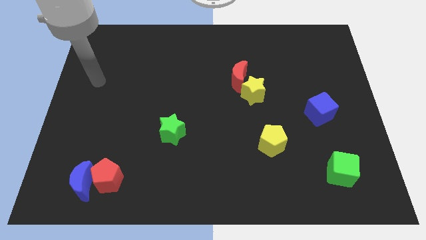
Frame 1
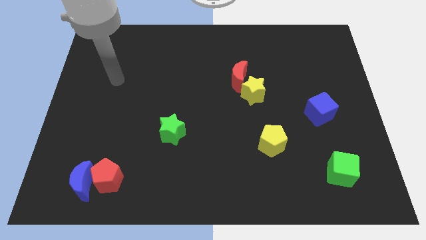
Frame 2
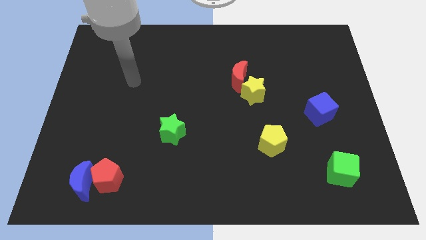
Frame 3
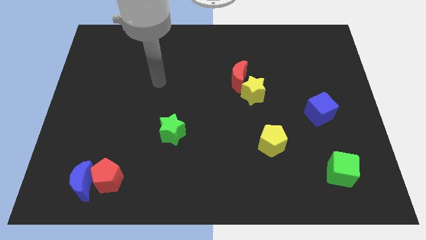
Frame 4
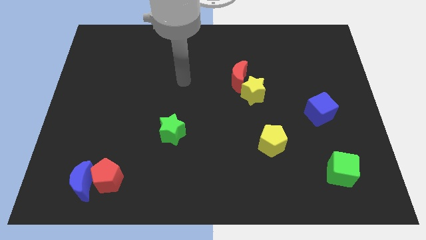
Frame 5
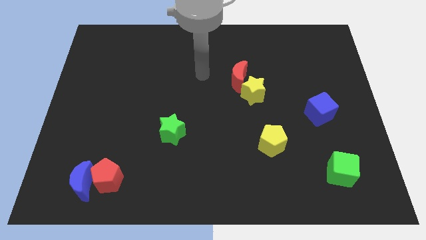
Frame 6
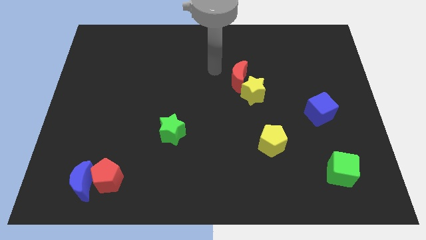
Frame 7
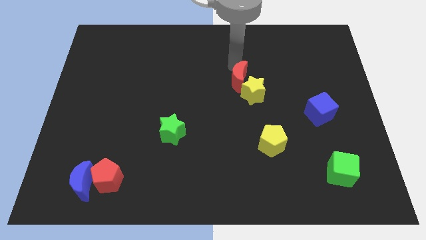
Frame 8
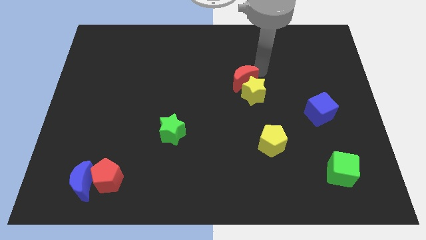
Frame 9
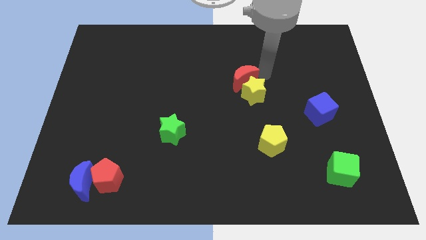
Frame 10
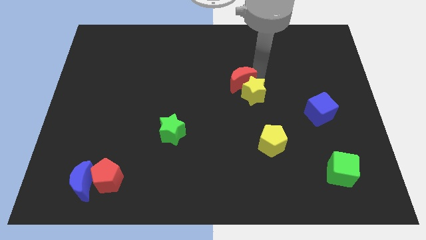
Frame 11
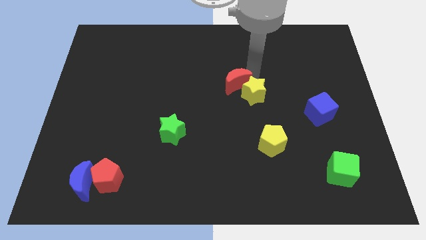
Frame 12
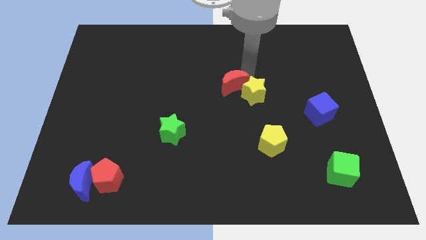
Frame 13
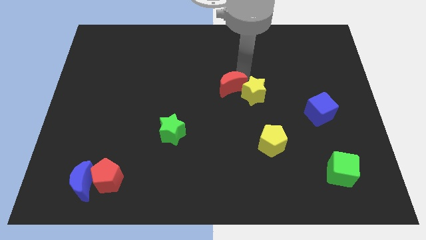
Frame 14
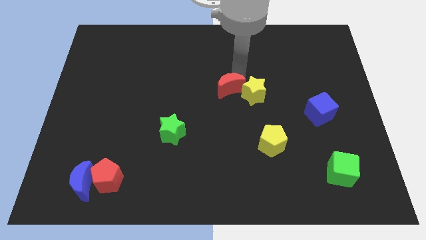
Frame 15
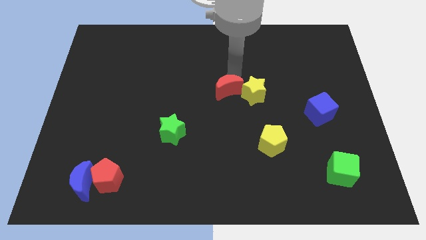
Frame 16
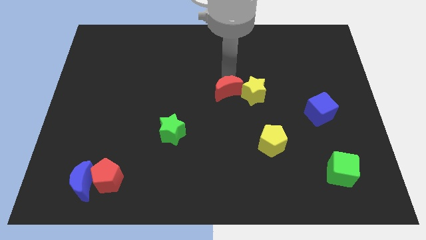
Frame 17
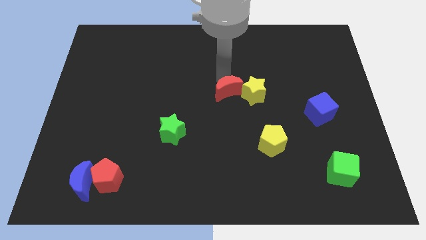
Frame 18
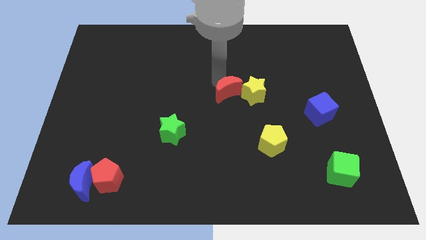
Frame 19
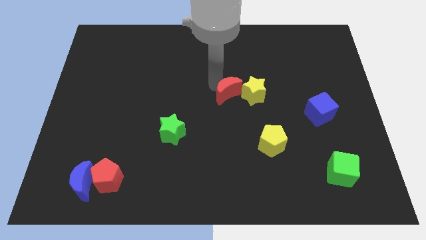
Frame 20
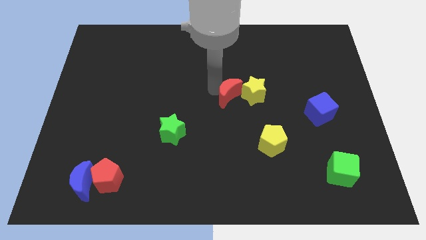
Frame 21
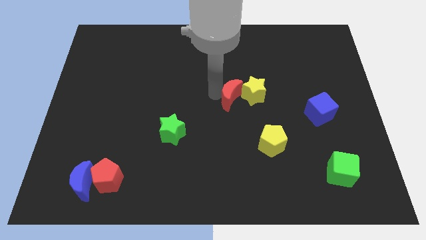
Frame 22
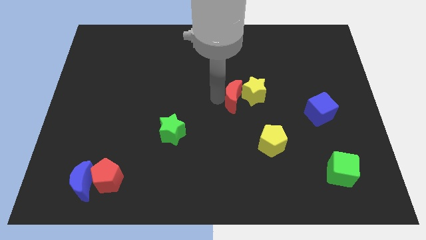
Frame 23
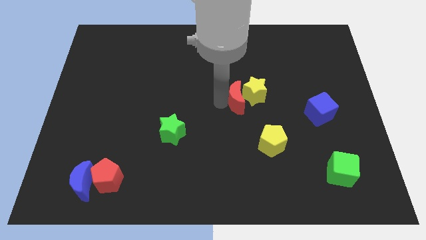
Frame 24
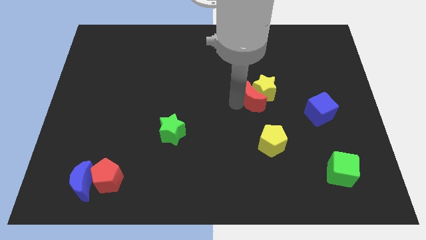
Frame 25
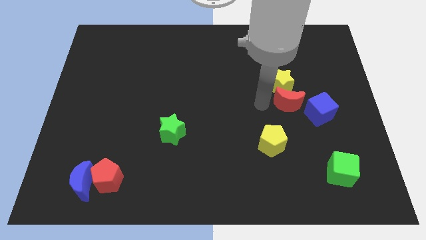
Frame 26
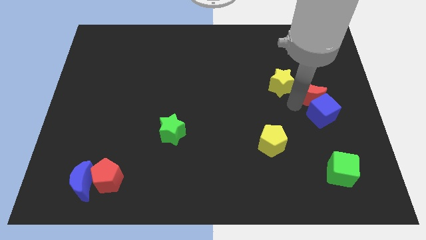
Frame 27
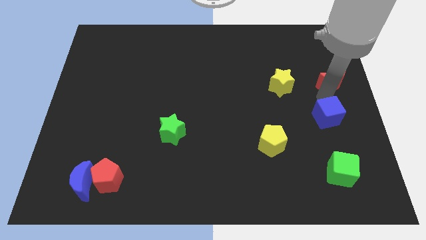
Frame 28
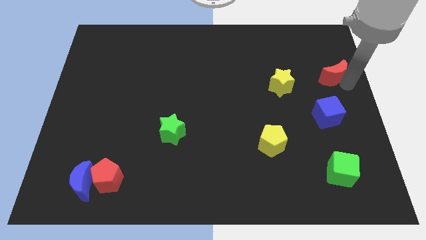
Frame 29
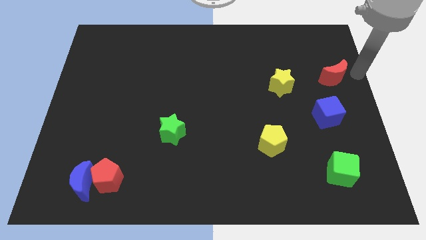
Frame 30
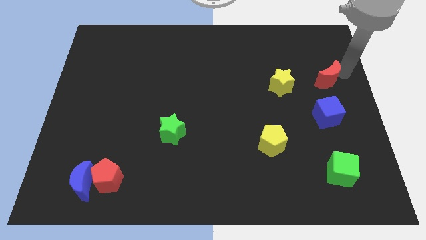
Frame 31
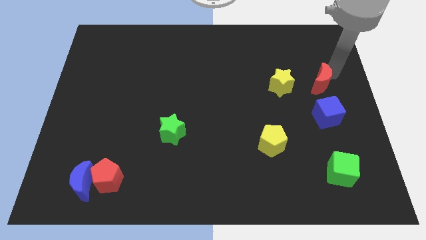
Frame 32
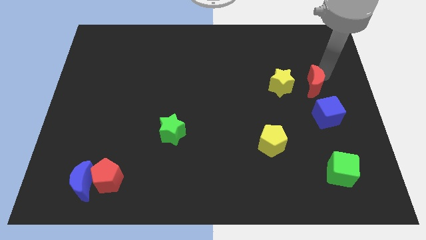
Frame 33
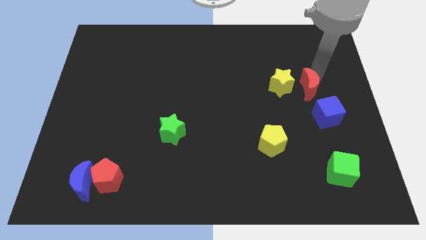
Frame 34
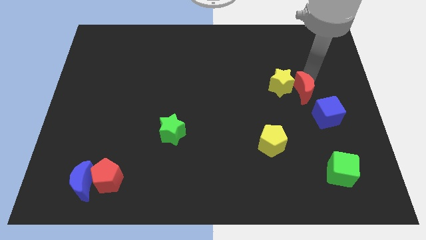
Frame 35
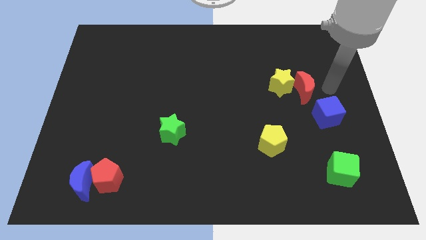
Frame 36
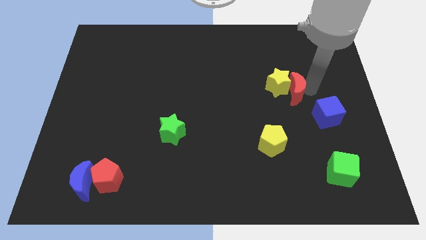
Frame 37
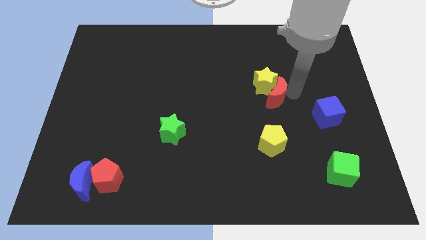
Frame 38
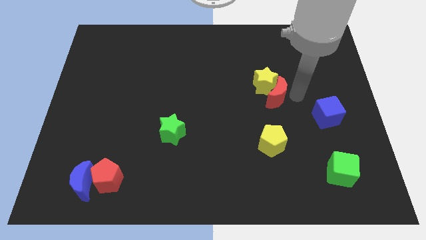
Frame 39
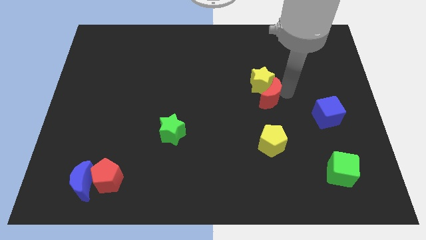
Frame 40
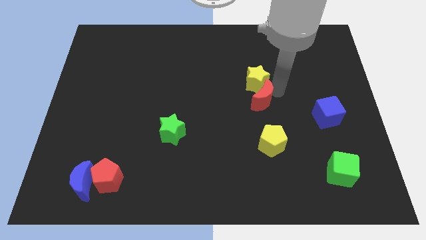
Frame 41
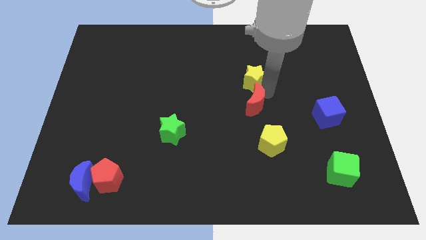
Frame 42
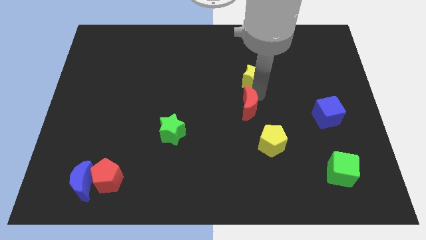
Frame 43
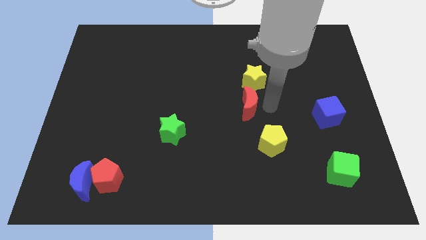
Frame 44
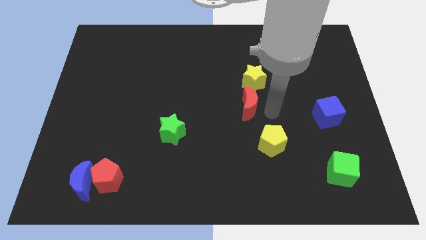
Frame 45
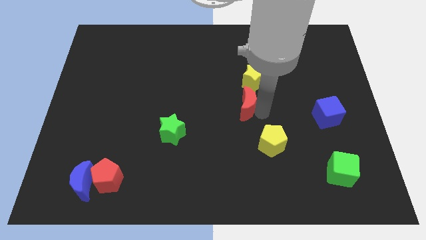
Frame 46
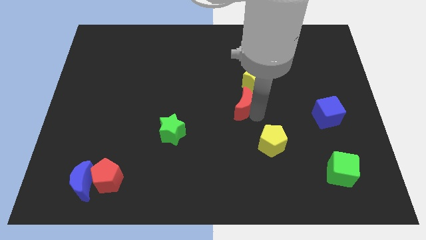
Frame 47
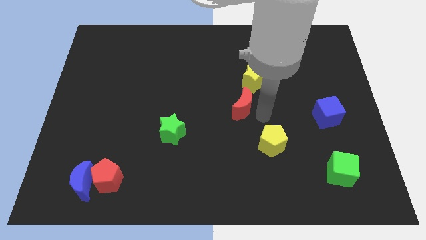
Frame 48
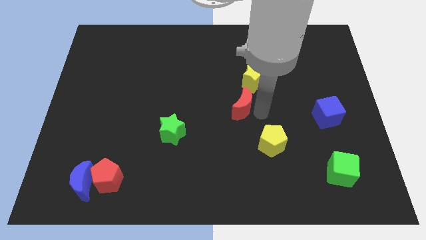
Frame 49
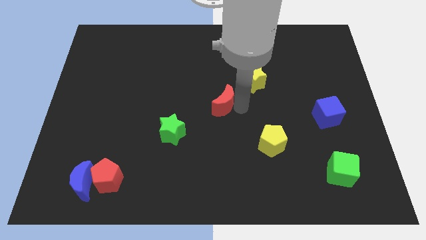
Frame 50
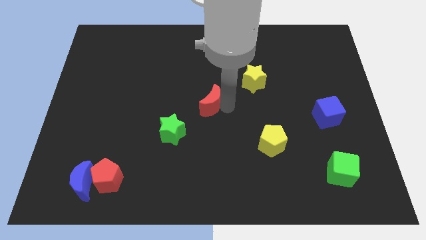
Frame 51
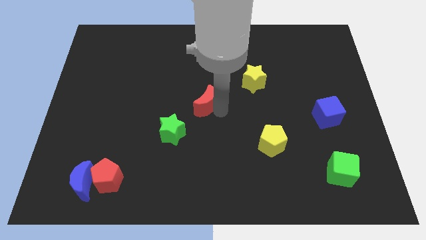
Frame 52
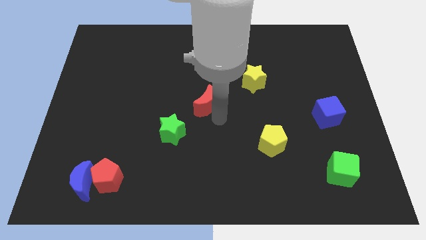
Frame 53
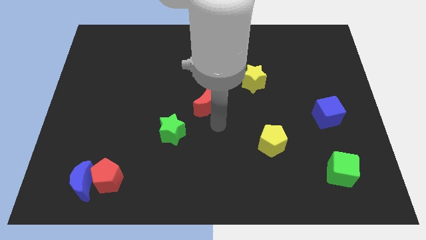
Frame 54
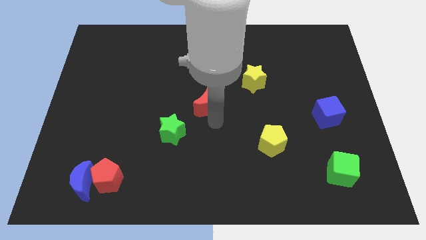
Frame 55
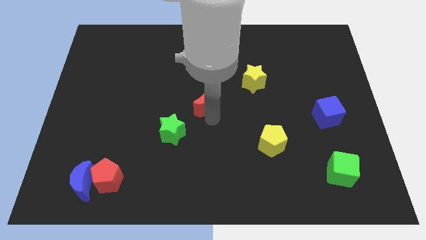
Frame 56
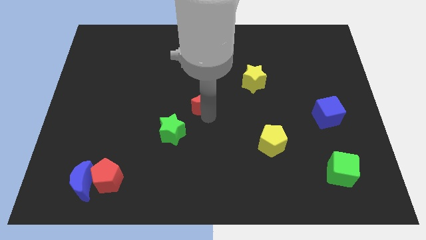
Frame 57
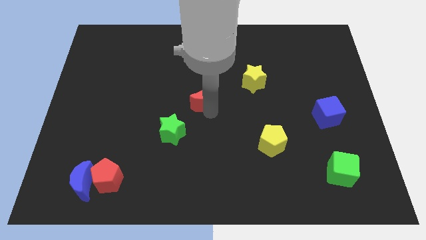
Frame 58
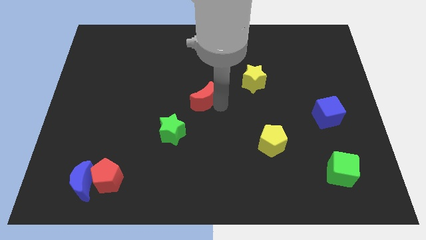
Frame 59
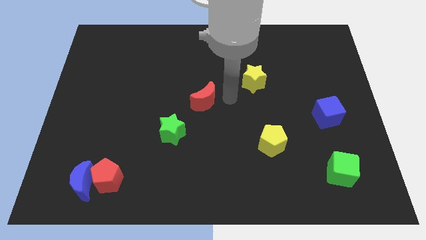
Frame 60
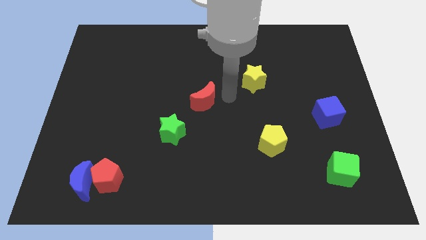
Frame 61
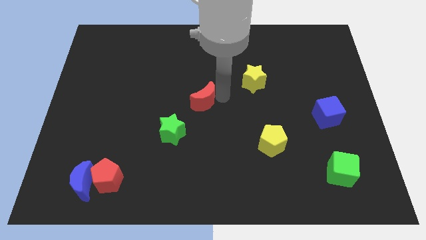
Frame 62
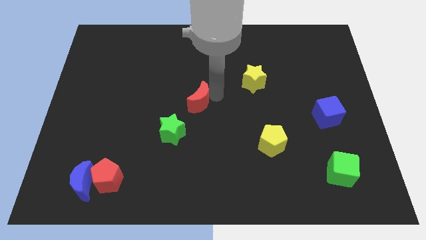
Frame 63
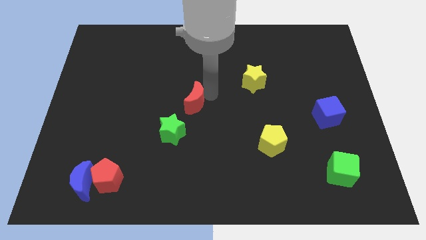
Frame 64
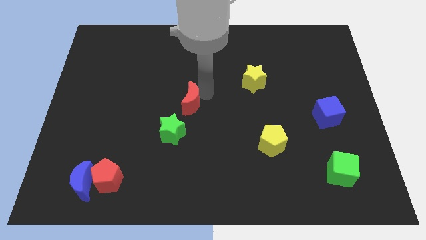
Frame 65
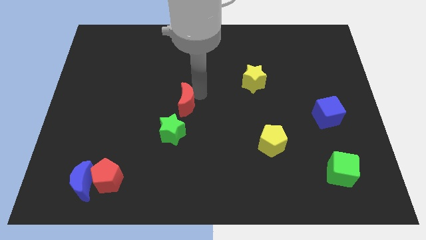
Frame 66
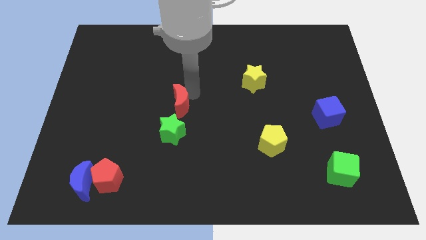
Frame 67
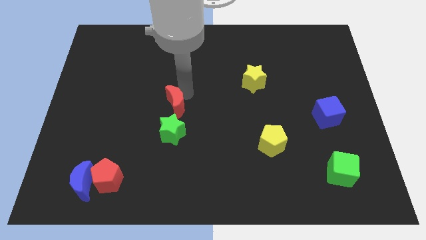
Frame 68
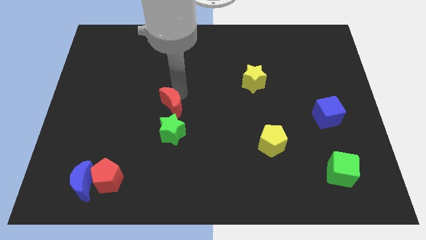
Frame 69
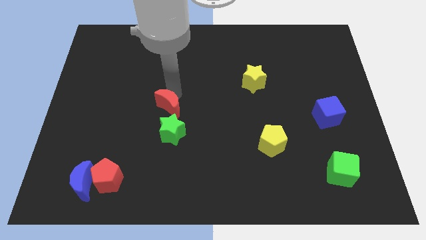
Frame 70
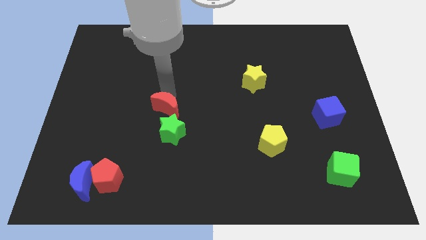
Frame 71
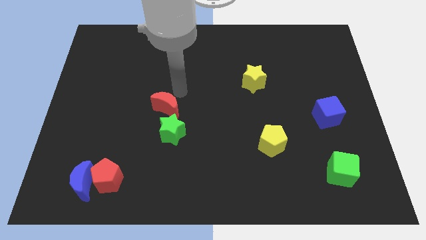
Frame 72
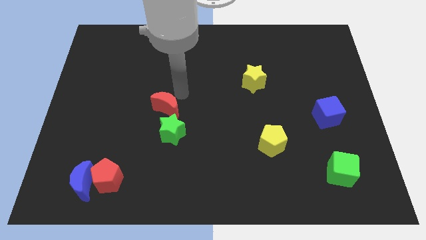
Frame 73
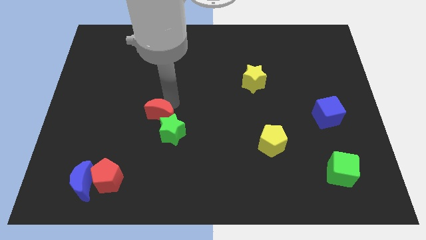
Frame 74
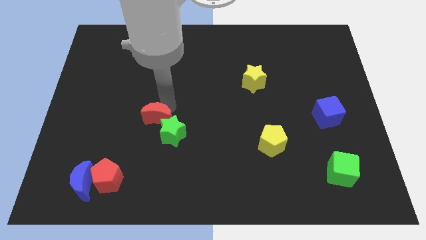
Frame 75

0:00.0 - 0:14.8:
push the red moon just left of the green star
